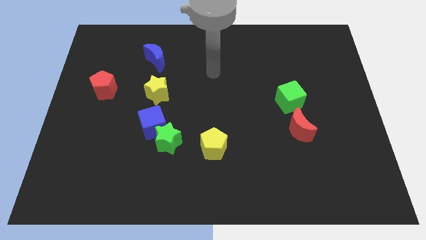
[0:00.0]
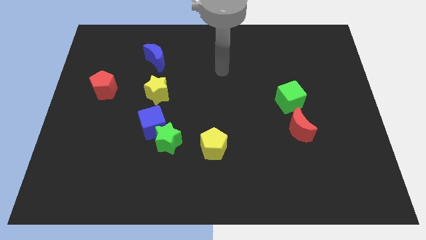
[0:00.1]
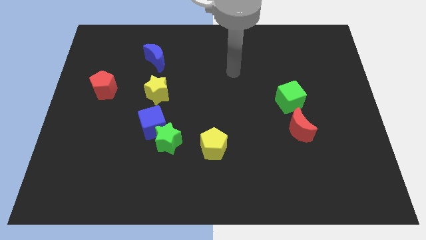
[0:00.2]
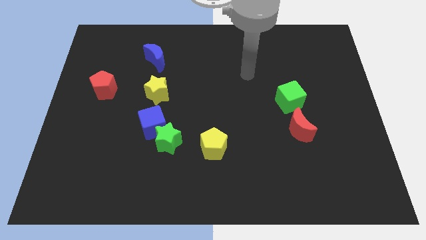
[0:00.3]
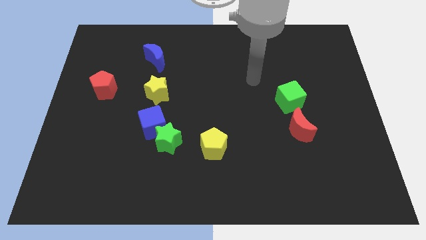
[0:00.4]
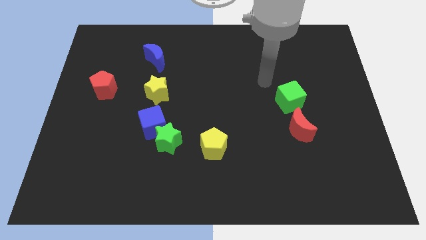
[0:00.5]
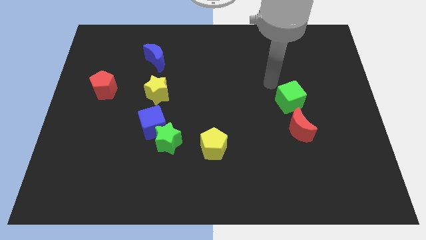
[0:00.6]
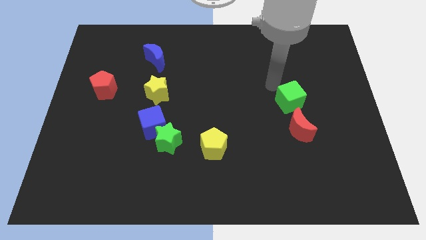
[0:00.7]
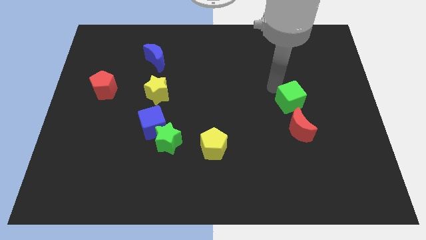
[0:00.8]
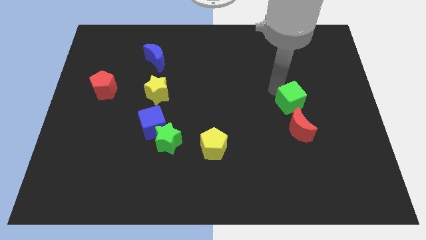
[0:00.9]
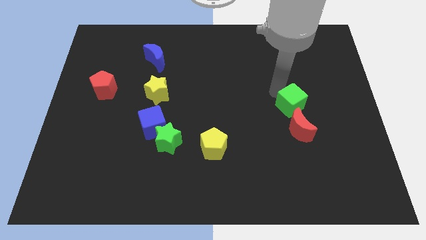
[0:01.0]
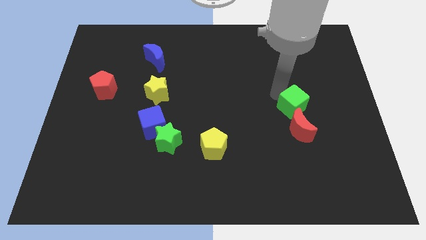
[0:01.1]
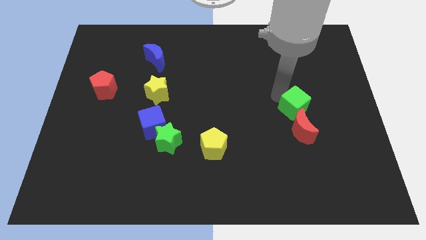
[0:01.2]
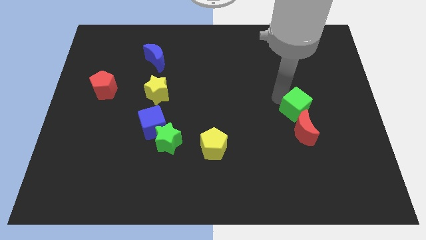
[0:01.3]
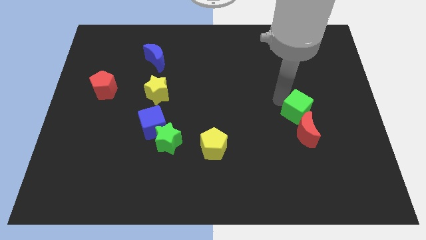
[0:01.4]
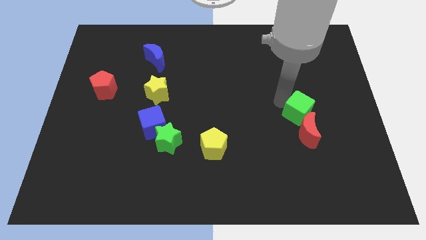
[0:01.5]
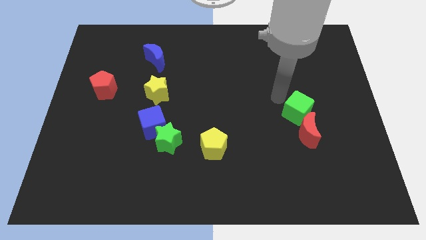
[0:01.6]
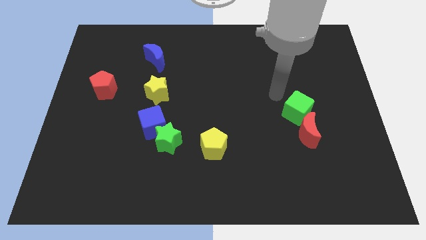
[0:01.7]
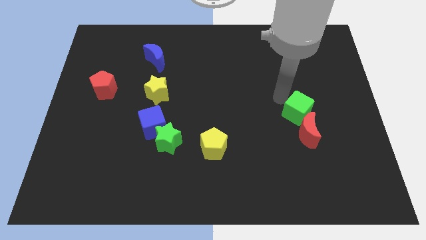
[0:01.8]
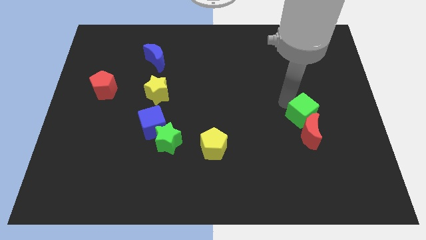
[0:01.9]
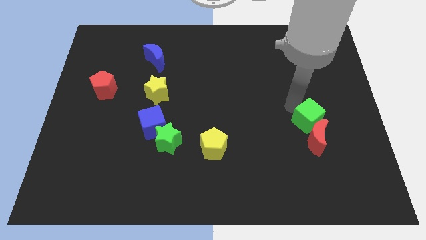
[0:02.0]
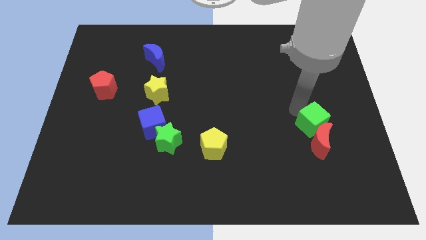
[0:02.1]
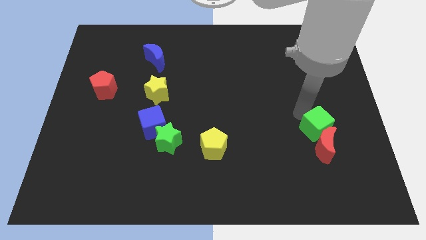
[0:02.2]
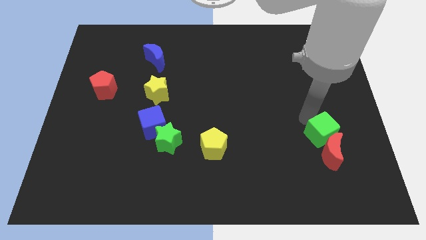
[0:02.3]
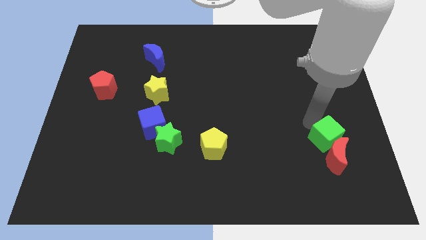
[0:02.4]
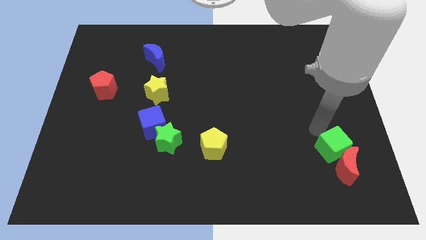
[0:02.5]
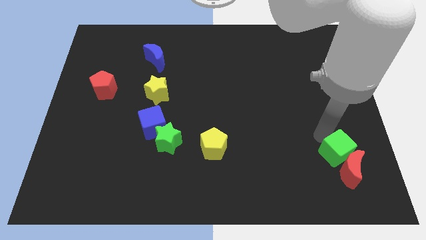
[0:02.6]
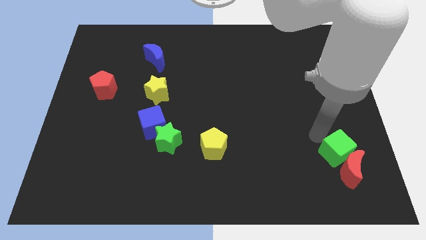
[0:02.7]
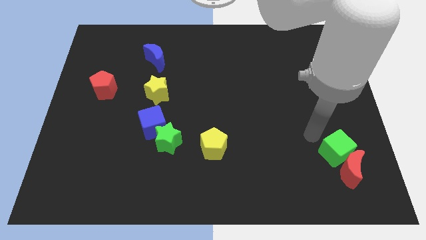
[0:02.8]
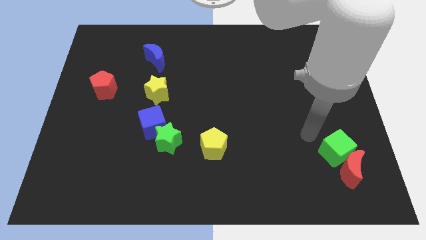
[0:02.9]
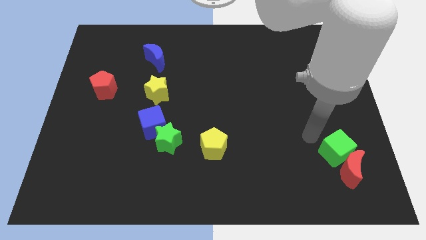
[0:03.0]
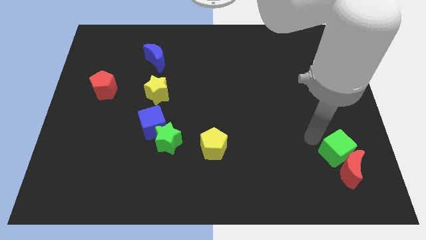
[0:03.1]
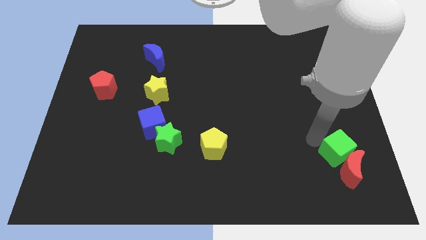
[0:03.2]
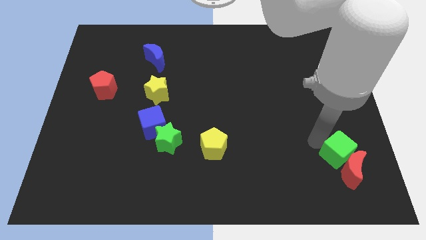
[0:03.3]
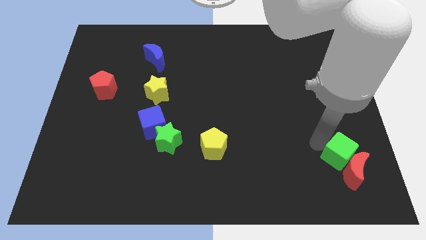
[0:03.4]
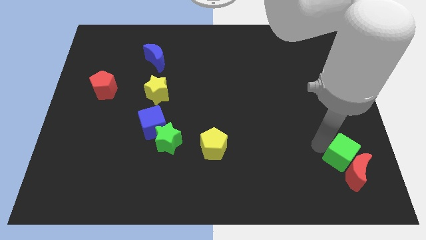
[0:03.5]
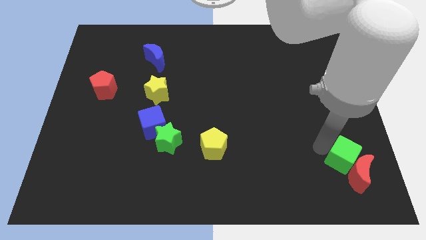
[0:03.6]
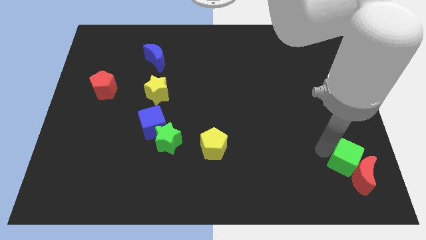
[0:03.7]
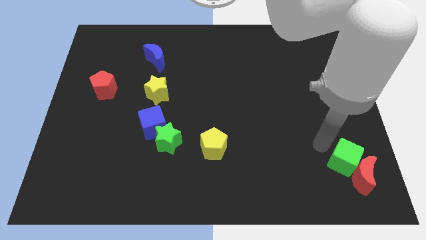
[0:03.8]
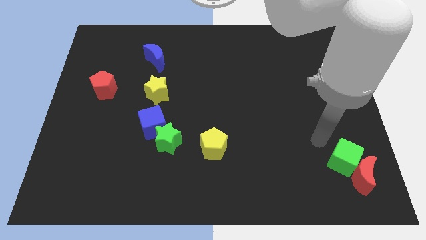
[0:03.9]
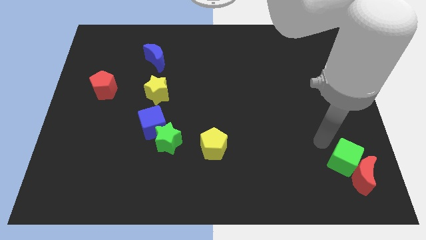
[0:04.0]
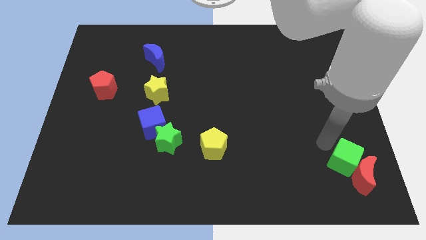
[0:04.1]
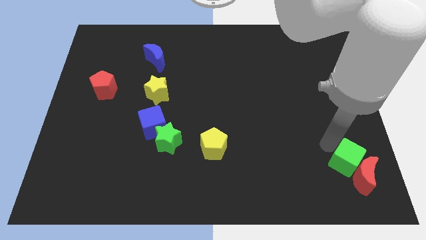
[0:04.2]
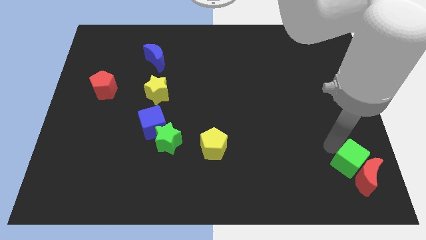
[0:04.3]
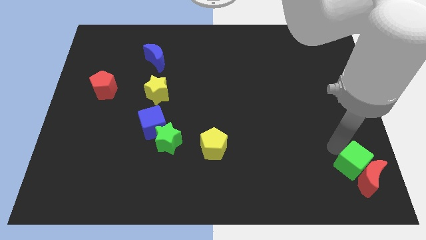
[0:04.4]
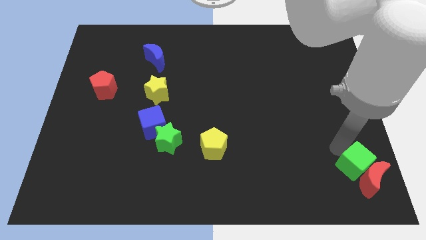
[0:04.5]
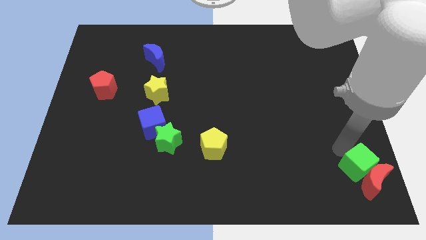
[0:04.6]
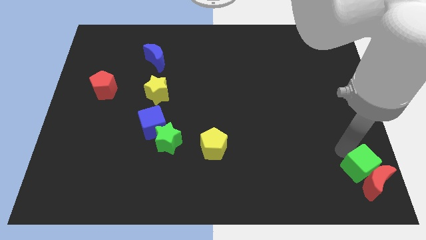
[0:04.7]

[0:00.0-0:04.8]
move the green cube to the bottom right of the board

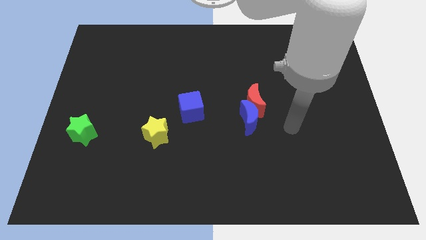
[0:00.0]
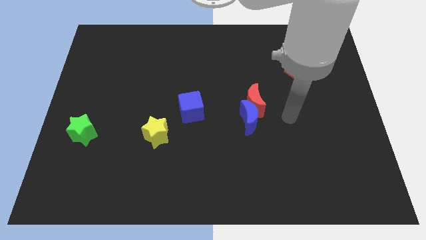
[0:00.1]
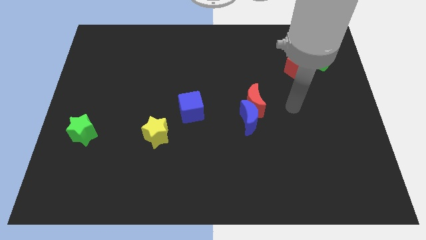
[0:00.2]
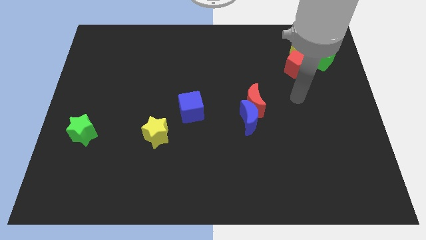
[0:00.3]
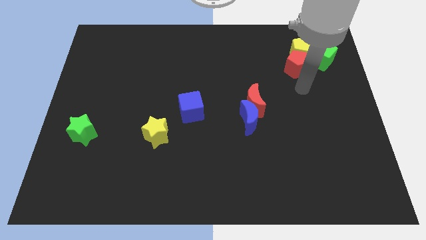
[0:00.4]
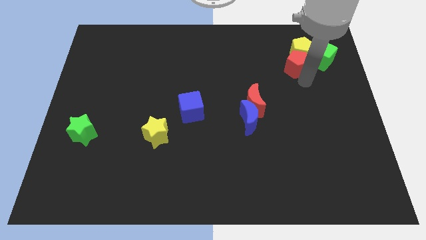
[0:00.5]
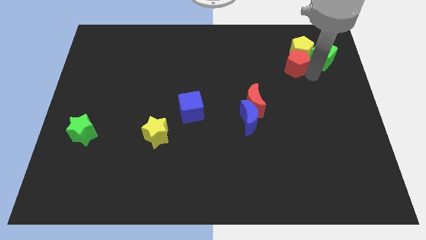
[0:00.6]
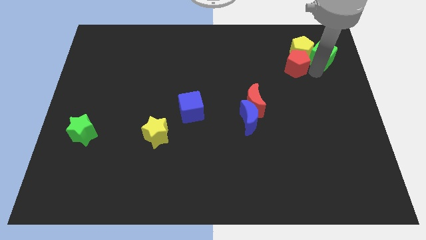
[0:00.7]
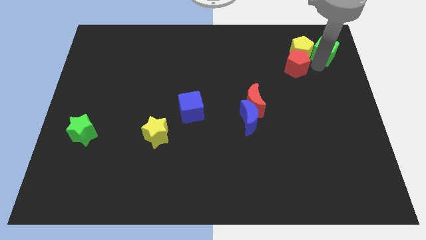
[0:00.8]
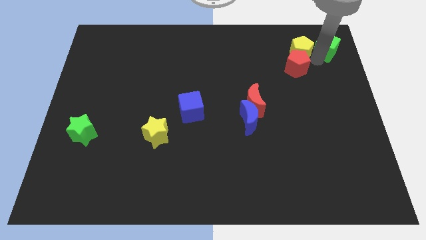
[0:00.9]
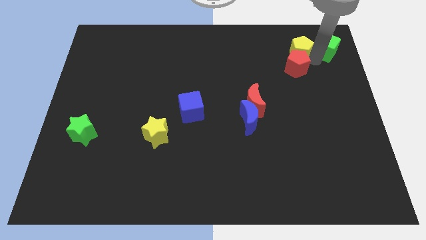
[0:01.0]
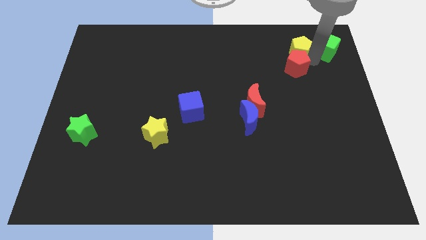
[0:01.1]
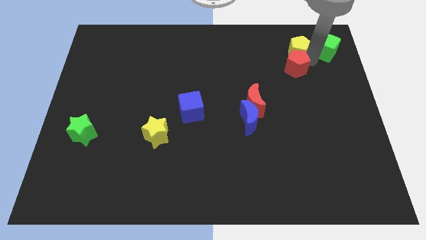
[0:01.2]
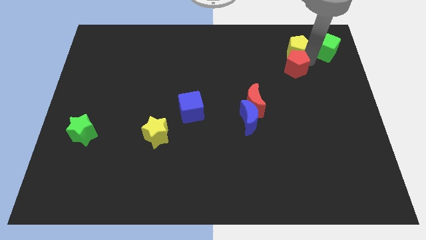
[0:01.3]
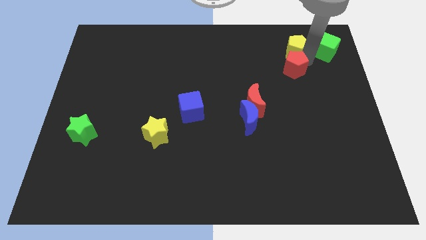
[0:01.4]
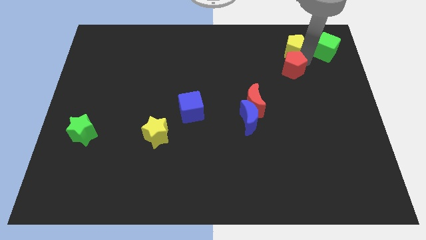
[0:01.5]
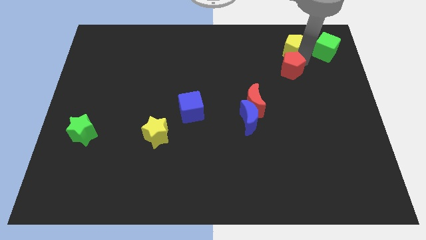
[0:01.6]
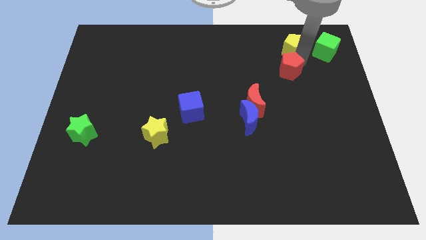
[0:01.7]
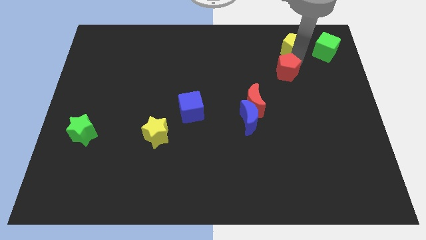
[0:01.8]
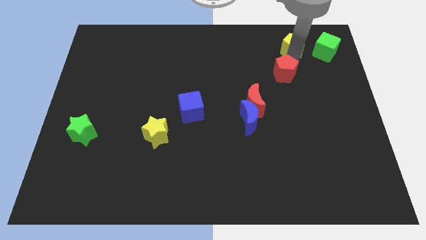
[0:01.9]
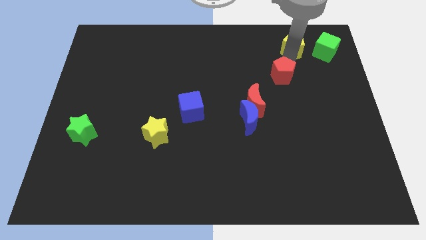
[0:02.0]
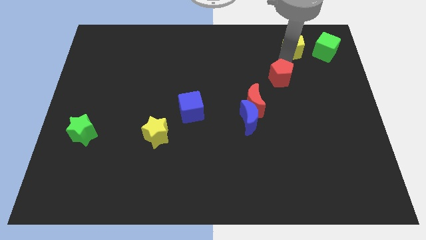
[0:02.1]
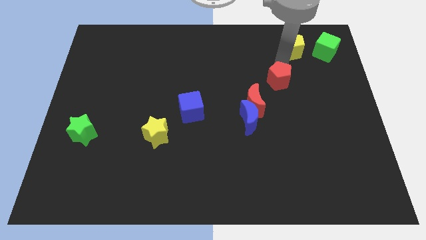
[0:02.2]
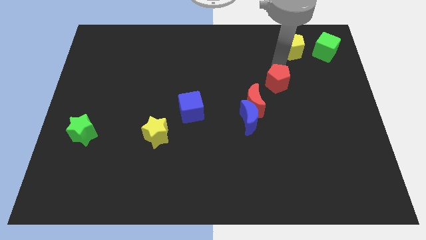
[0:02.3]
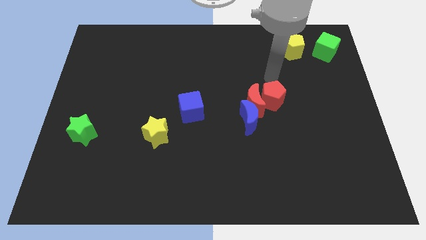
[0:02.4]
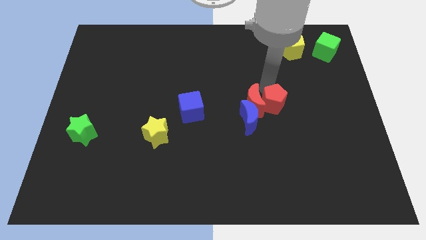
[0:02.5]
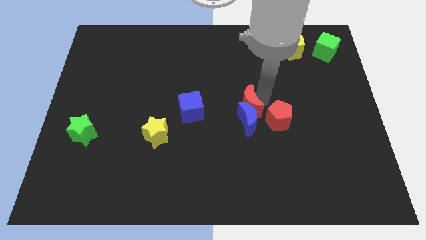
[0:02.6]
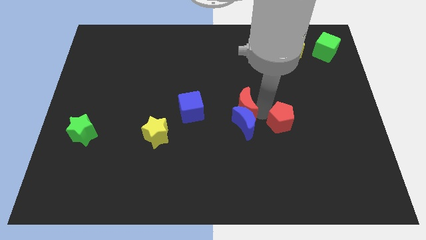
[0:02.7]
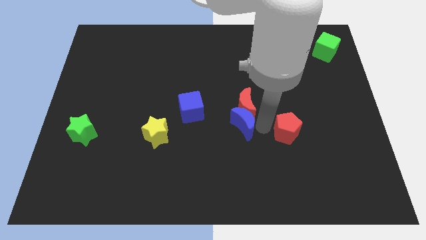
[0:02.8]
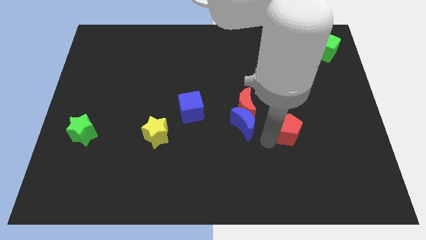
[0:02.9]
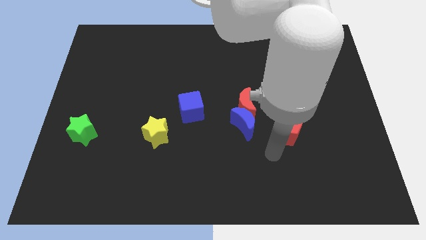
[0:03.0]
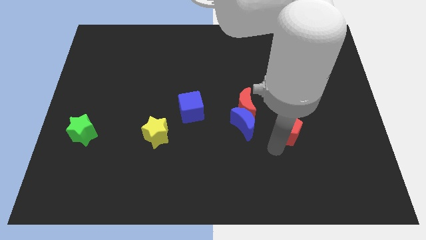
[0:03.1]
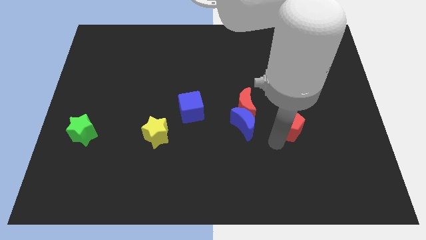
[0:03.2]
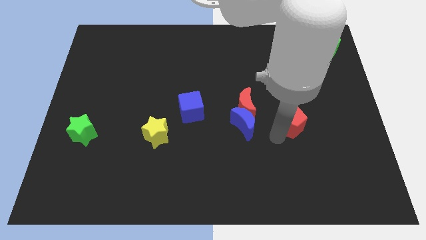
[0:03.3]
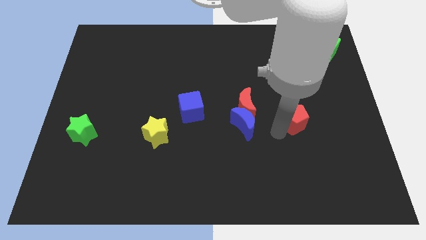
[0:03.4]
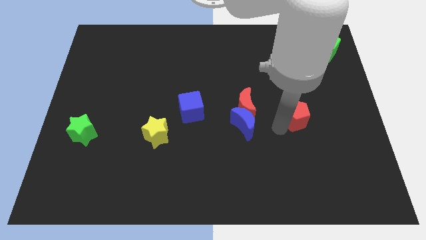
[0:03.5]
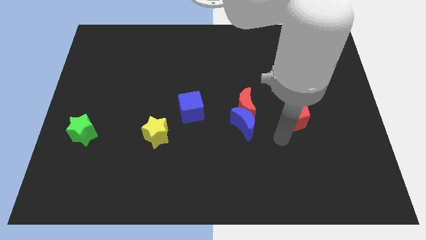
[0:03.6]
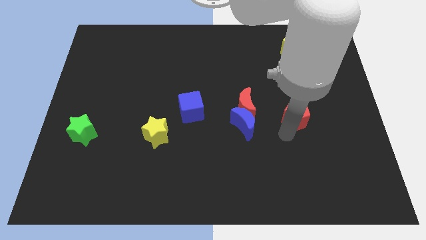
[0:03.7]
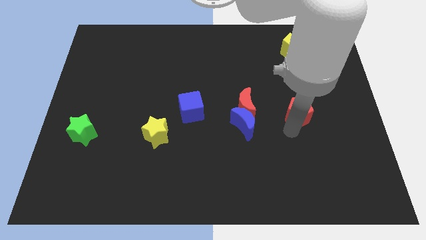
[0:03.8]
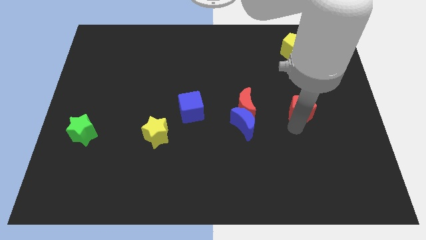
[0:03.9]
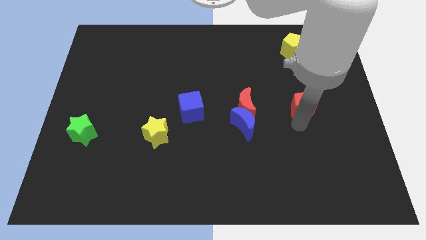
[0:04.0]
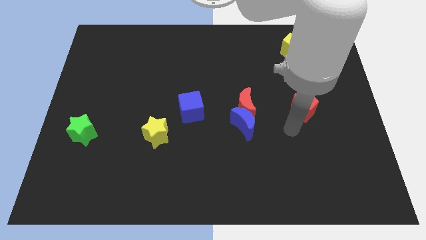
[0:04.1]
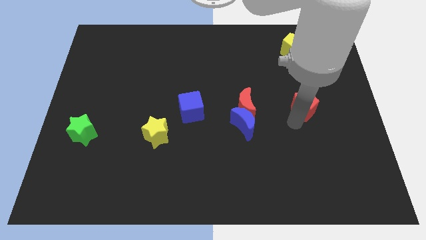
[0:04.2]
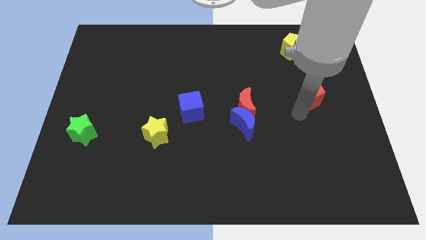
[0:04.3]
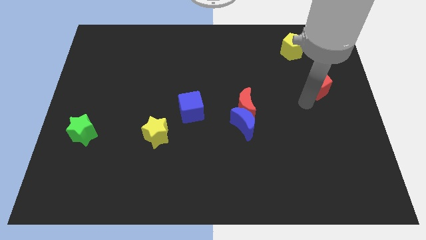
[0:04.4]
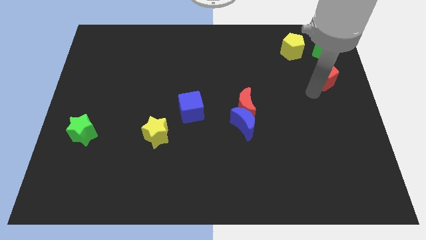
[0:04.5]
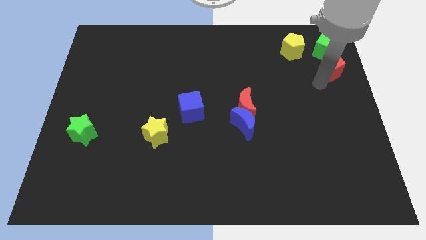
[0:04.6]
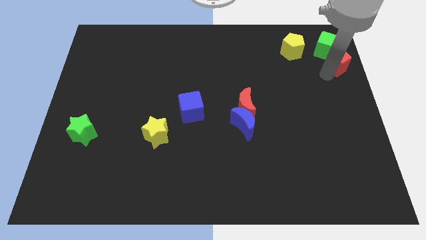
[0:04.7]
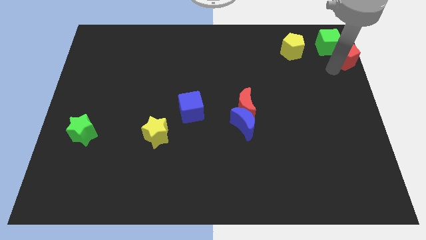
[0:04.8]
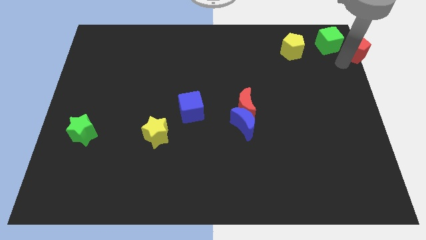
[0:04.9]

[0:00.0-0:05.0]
move the red pentagon to the top right
